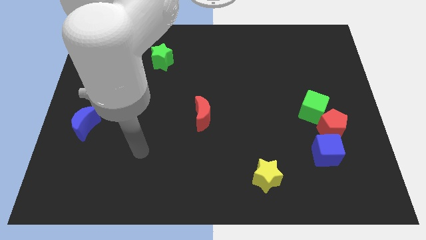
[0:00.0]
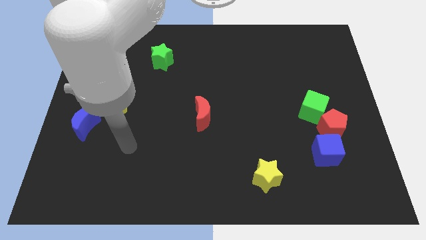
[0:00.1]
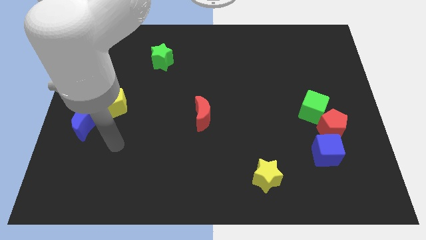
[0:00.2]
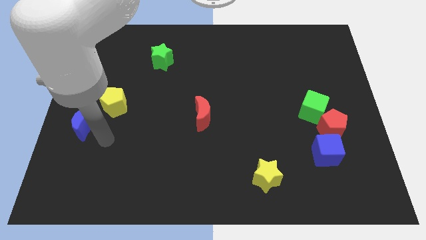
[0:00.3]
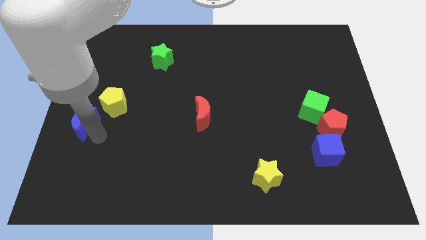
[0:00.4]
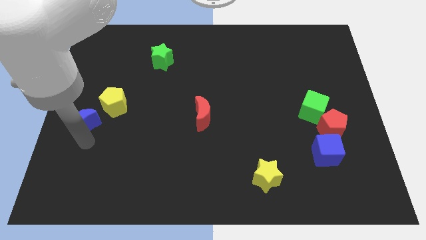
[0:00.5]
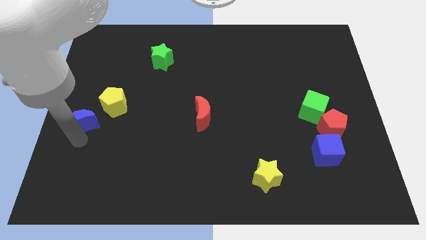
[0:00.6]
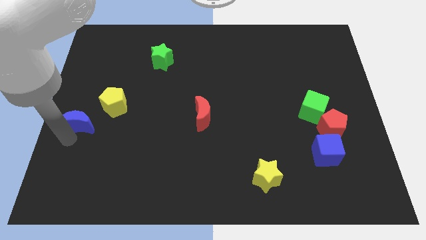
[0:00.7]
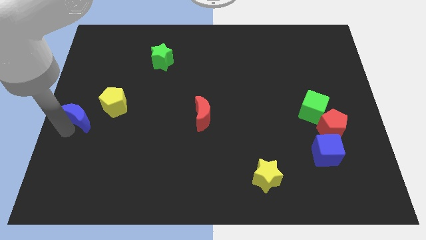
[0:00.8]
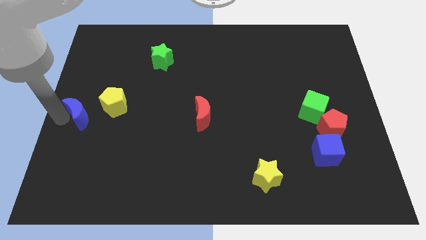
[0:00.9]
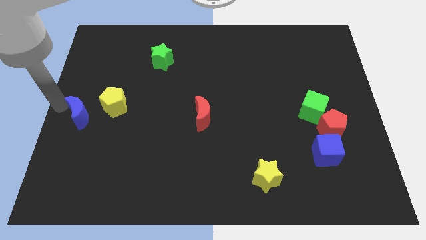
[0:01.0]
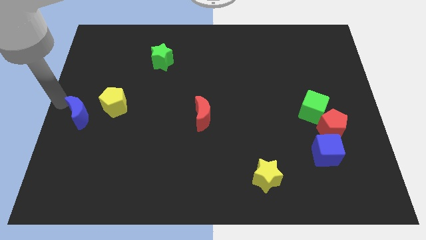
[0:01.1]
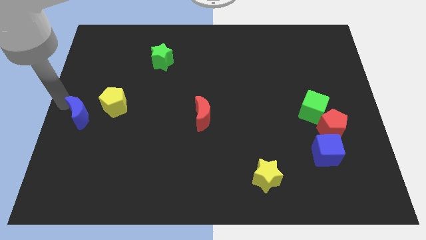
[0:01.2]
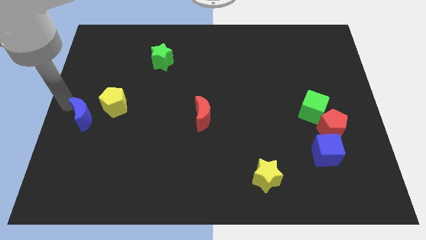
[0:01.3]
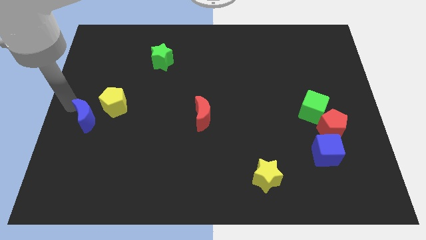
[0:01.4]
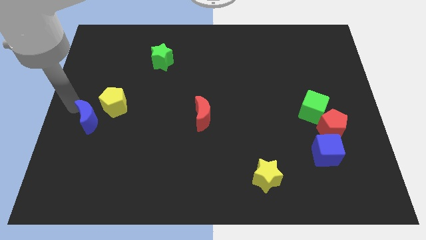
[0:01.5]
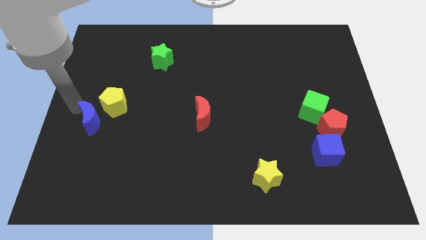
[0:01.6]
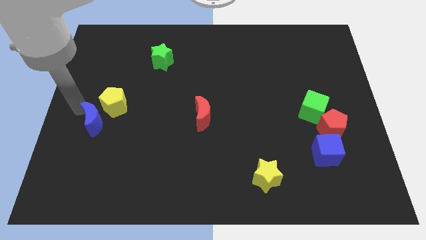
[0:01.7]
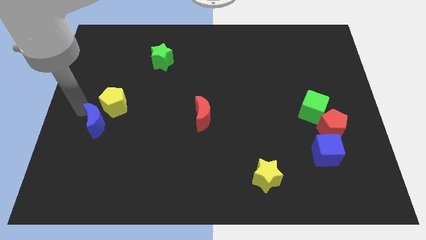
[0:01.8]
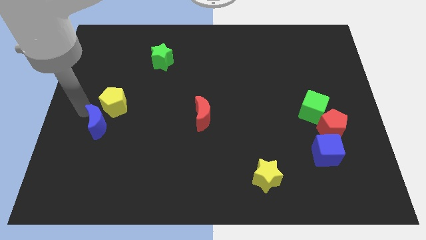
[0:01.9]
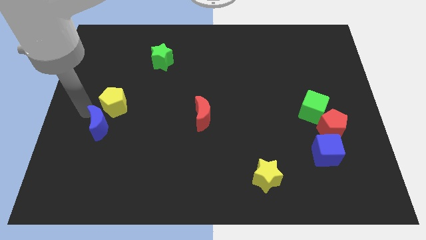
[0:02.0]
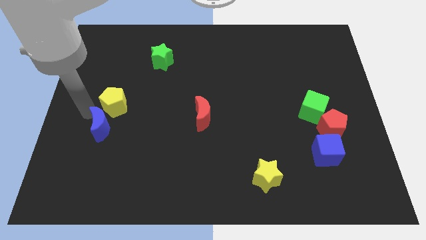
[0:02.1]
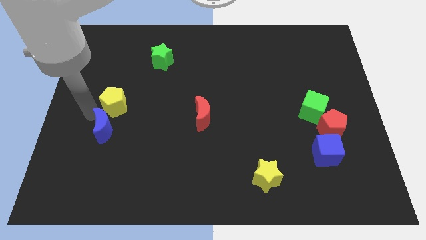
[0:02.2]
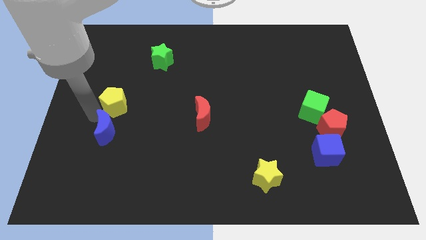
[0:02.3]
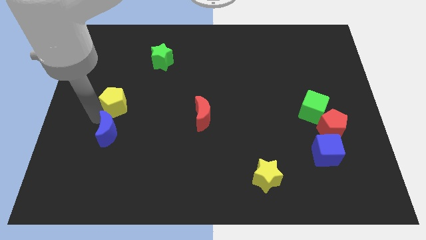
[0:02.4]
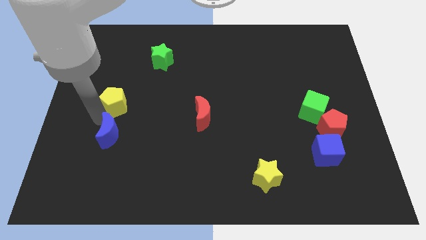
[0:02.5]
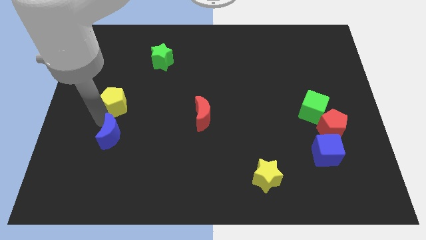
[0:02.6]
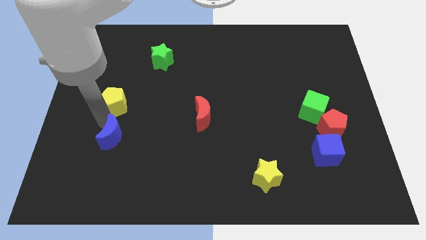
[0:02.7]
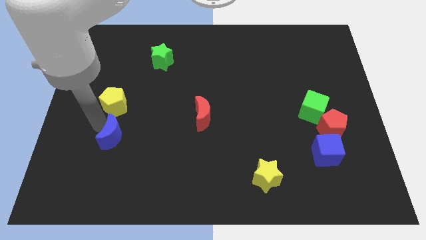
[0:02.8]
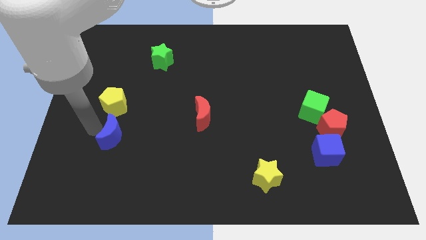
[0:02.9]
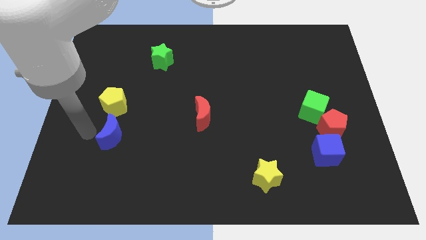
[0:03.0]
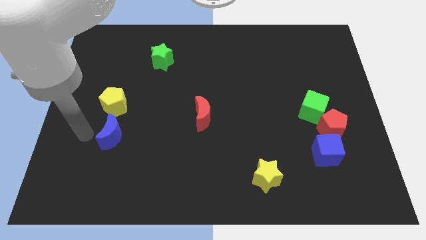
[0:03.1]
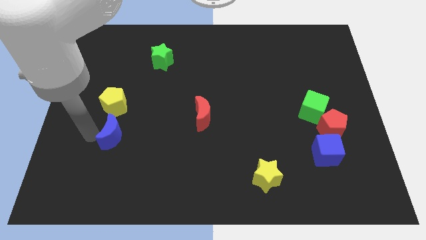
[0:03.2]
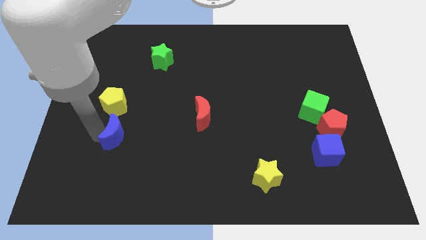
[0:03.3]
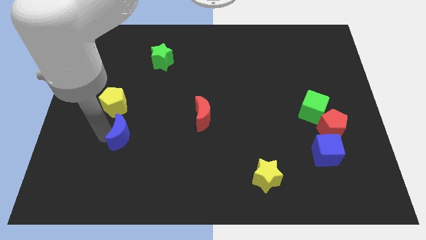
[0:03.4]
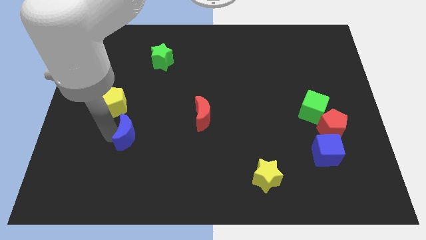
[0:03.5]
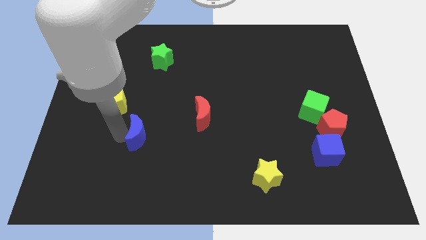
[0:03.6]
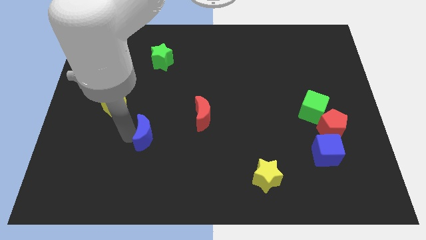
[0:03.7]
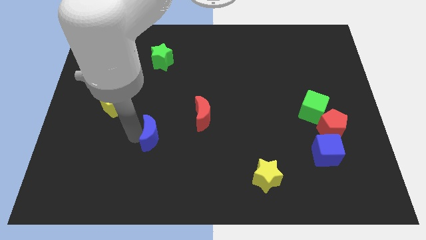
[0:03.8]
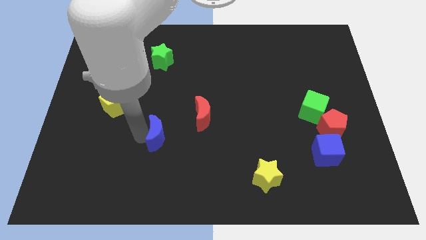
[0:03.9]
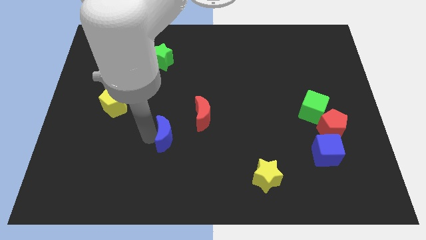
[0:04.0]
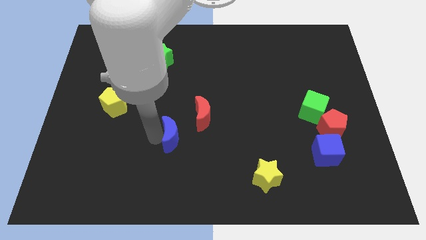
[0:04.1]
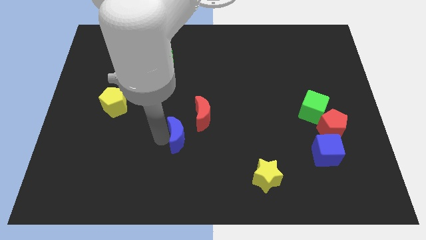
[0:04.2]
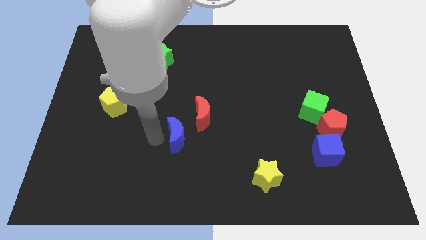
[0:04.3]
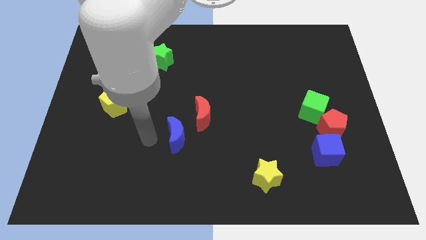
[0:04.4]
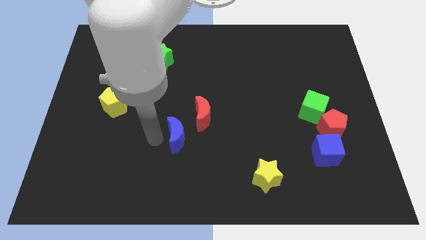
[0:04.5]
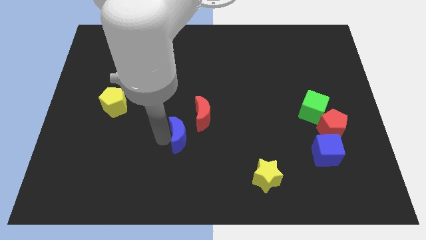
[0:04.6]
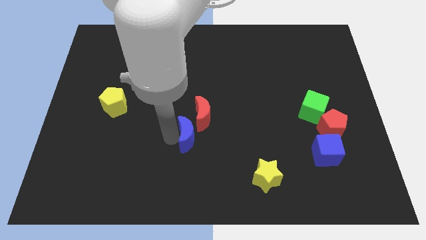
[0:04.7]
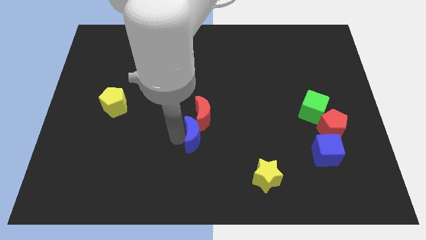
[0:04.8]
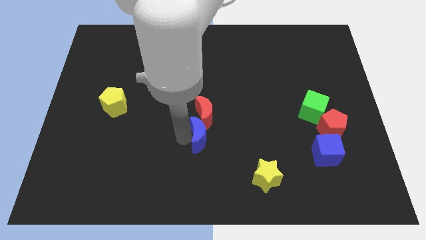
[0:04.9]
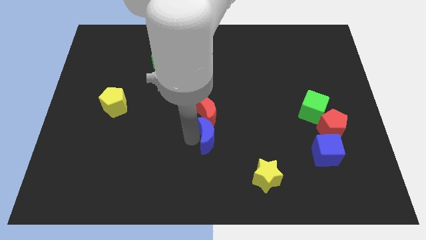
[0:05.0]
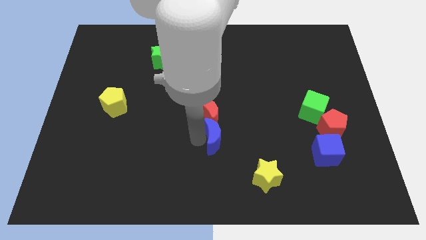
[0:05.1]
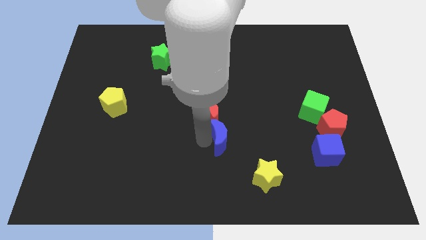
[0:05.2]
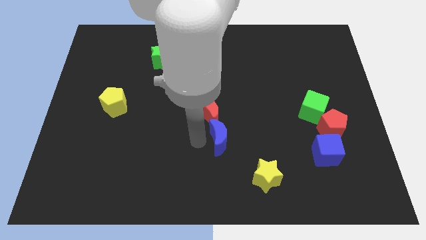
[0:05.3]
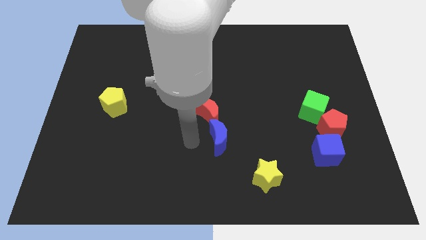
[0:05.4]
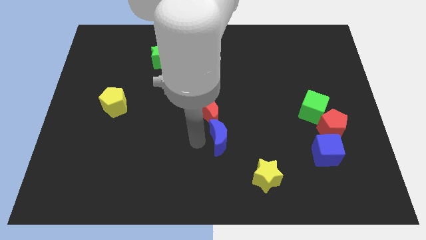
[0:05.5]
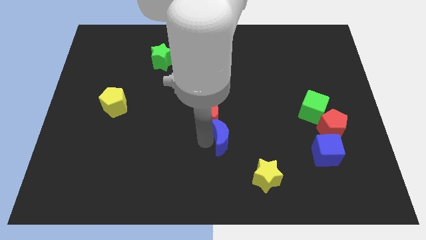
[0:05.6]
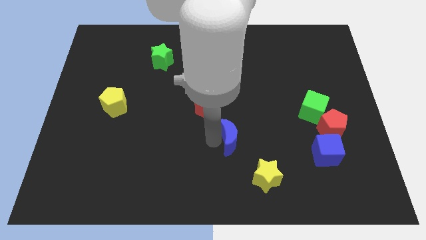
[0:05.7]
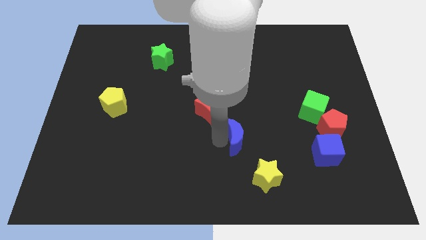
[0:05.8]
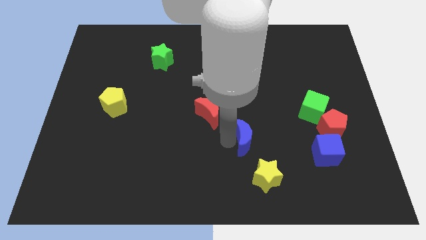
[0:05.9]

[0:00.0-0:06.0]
move the blue moon above the yellow star

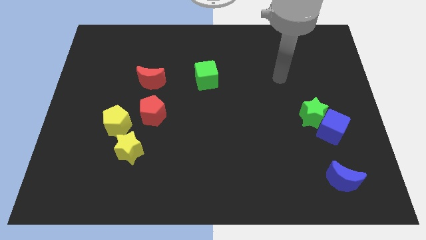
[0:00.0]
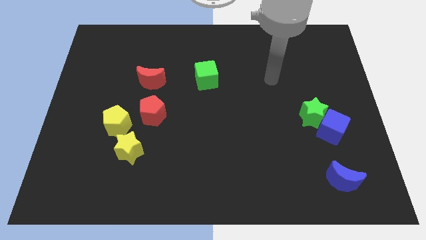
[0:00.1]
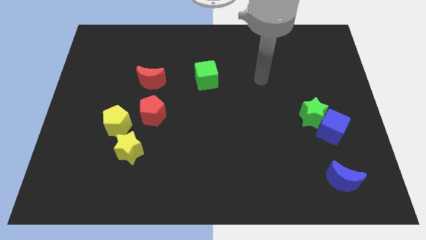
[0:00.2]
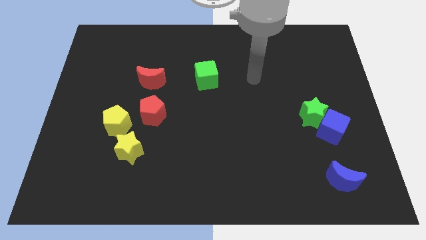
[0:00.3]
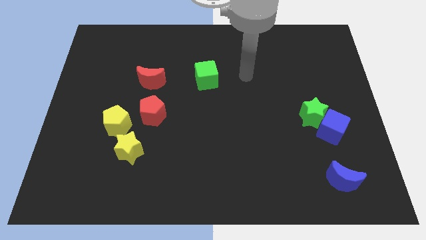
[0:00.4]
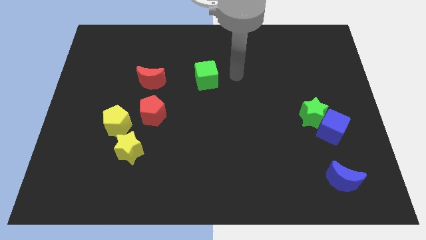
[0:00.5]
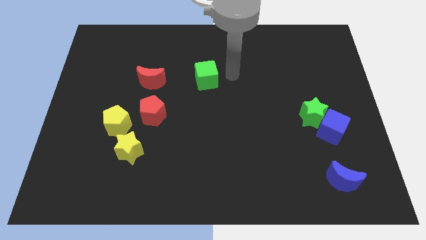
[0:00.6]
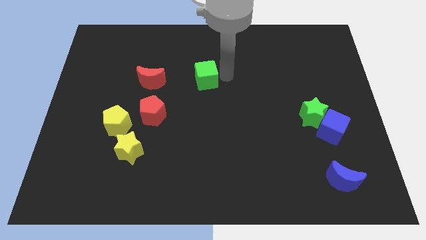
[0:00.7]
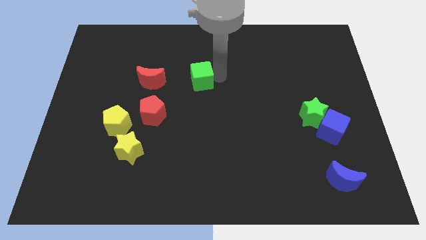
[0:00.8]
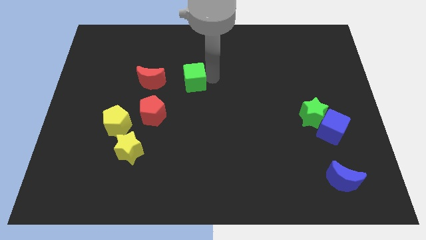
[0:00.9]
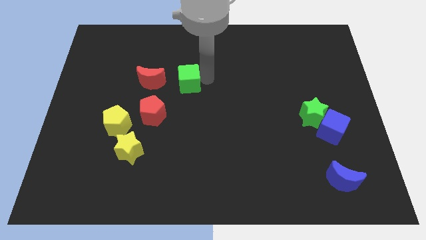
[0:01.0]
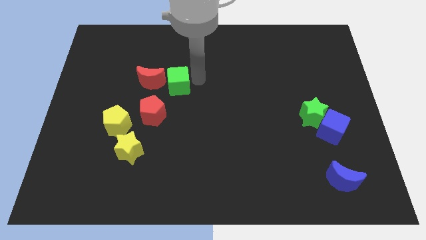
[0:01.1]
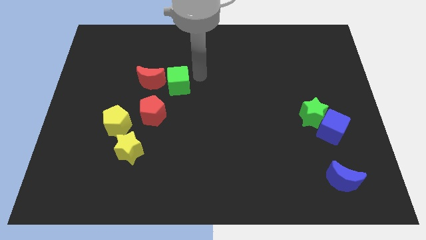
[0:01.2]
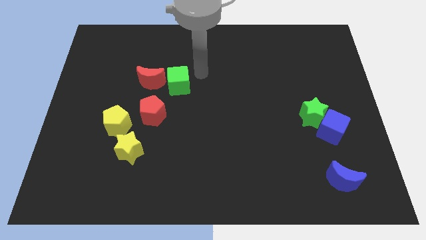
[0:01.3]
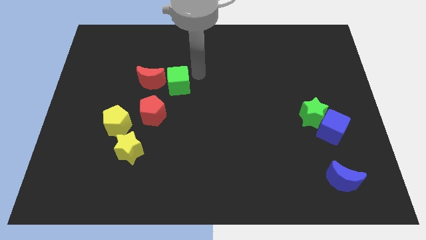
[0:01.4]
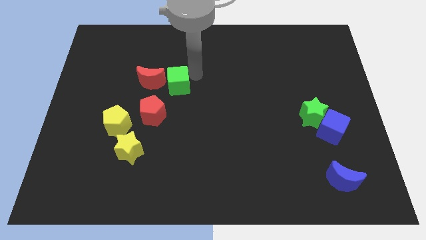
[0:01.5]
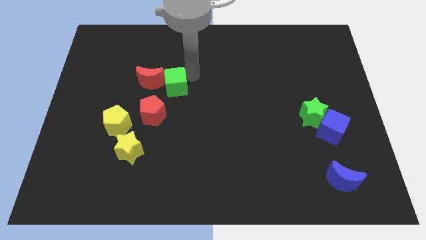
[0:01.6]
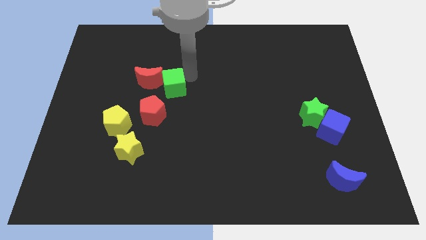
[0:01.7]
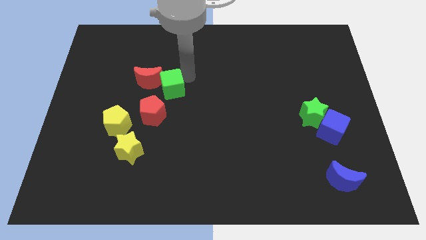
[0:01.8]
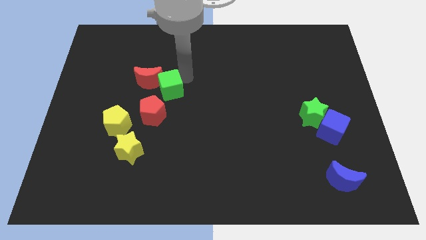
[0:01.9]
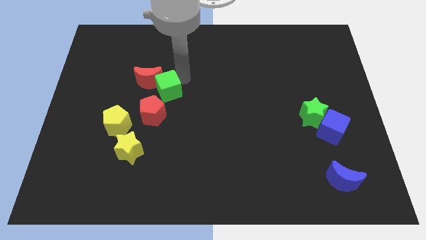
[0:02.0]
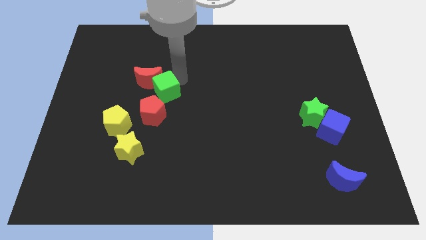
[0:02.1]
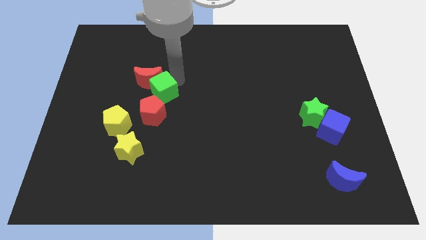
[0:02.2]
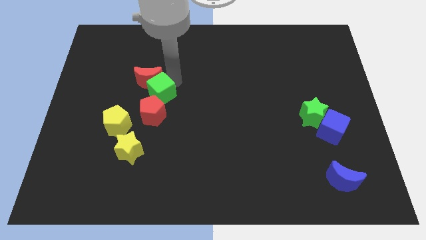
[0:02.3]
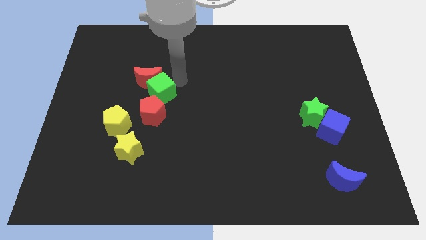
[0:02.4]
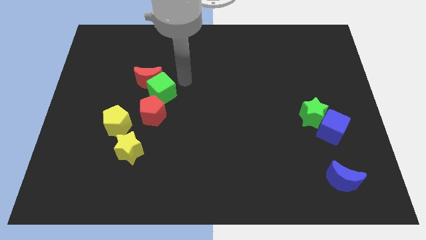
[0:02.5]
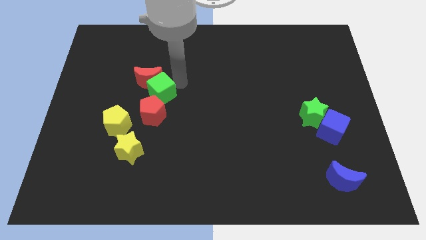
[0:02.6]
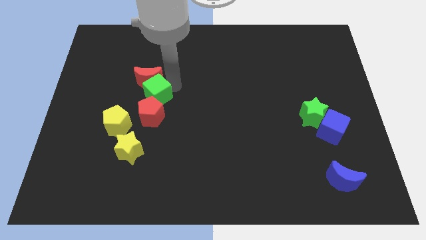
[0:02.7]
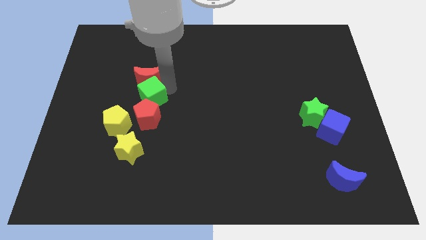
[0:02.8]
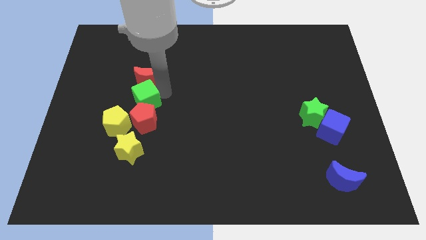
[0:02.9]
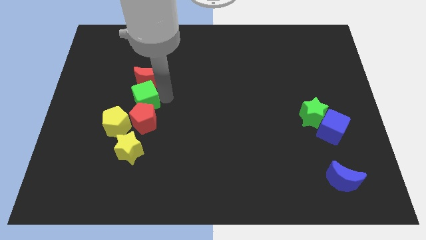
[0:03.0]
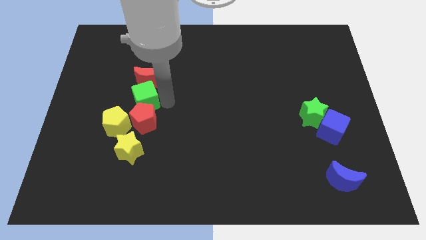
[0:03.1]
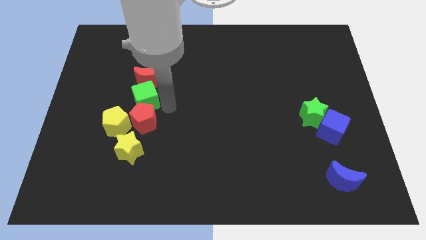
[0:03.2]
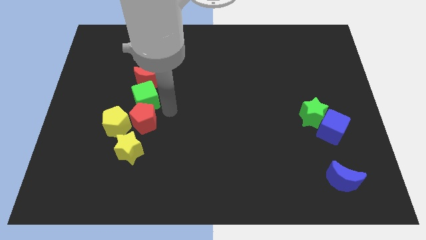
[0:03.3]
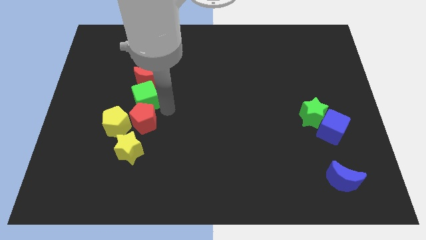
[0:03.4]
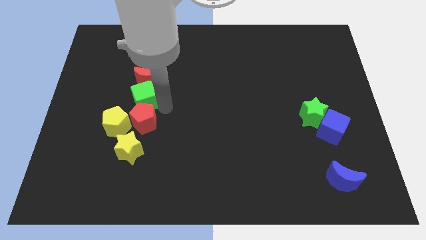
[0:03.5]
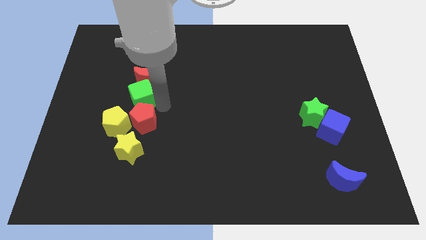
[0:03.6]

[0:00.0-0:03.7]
put the green cube to the top side of the yellow pentagon
